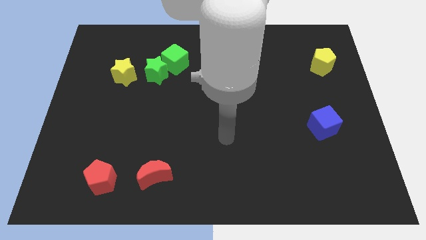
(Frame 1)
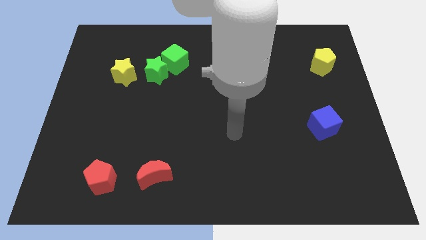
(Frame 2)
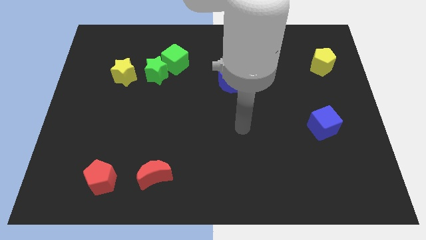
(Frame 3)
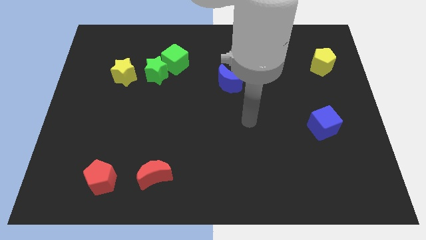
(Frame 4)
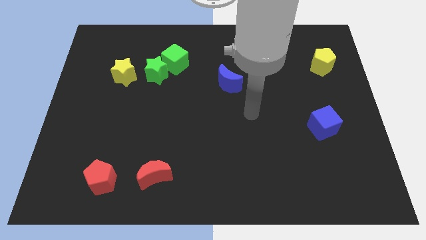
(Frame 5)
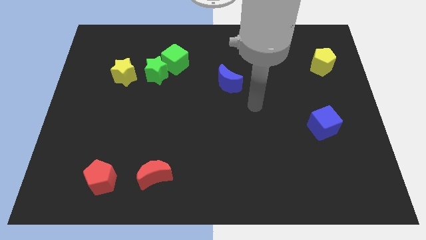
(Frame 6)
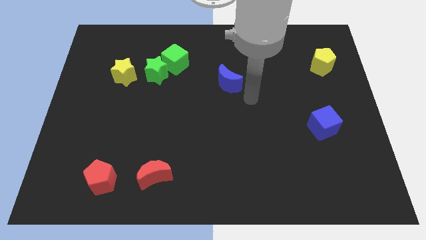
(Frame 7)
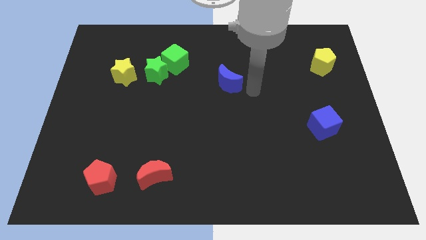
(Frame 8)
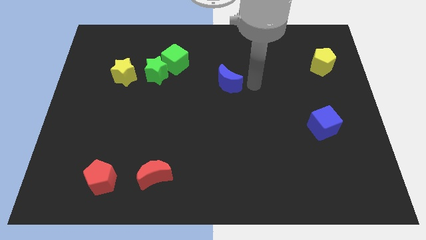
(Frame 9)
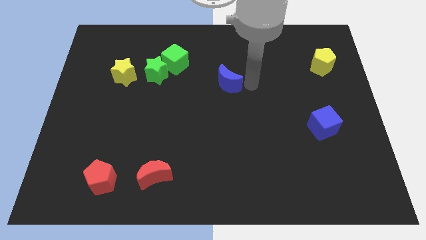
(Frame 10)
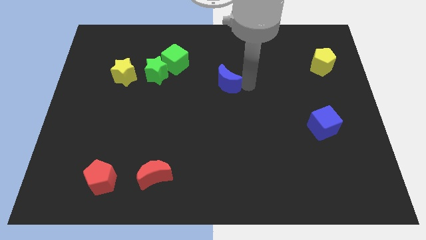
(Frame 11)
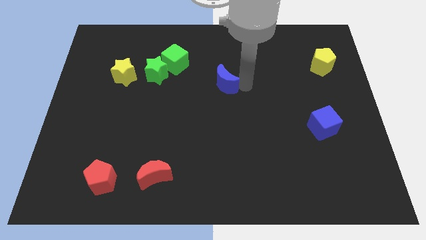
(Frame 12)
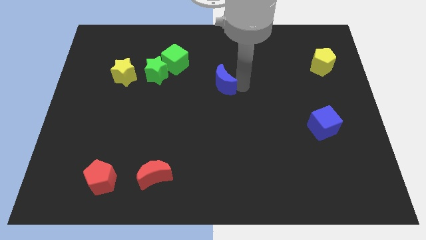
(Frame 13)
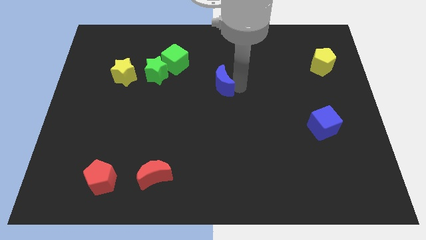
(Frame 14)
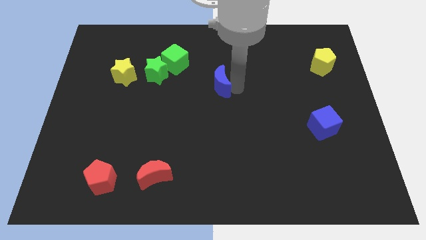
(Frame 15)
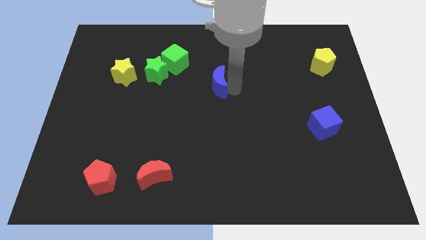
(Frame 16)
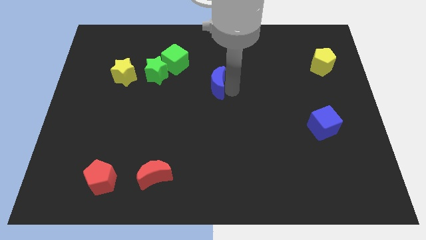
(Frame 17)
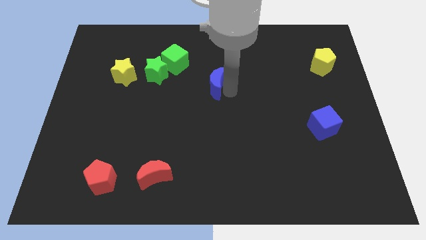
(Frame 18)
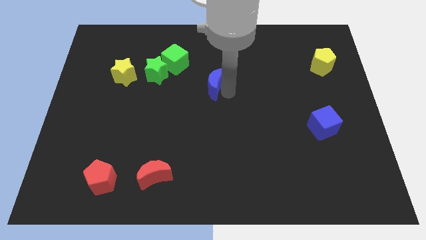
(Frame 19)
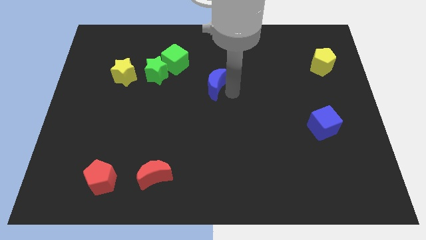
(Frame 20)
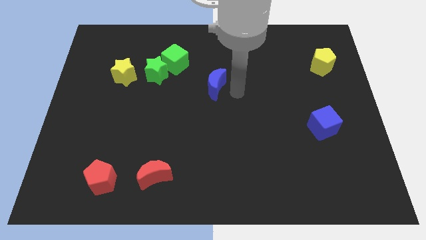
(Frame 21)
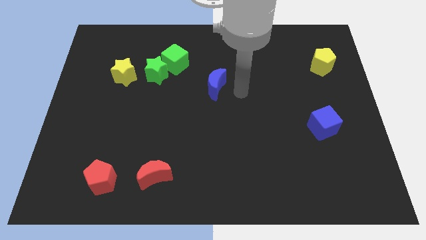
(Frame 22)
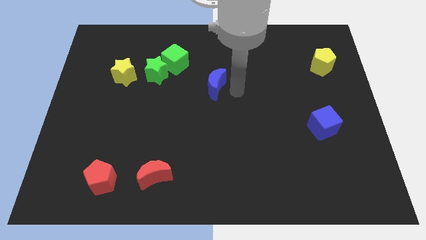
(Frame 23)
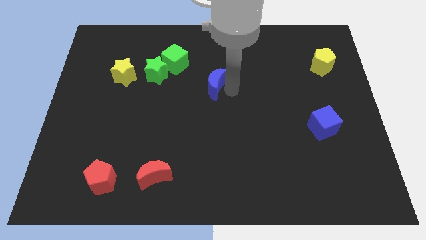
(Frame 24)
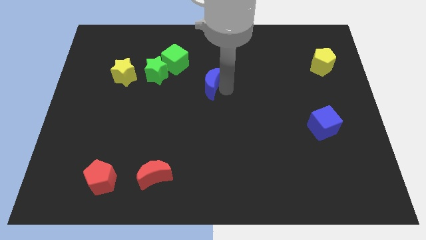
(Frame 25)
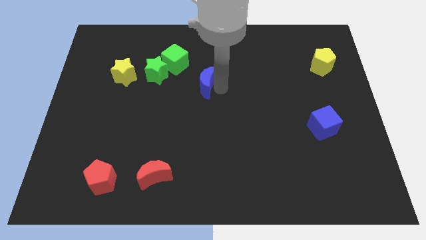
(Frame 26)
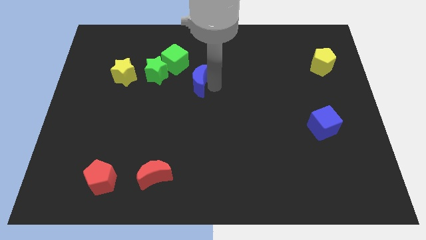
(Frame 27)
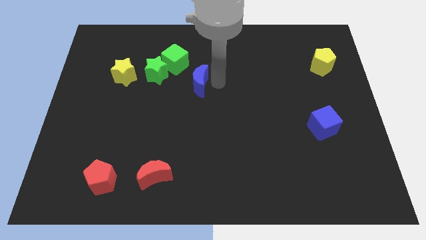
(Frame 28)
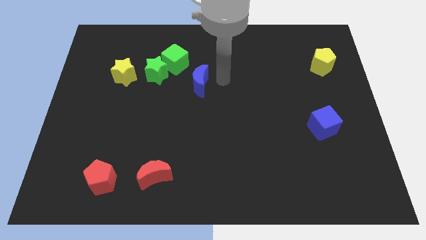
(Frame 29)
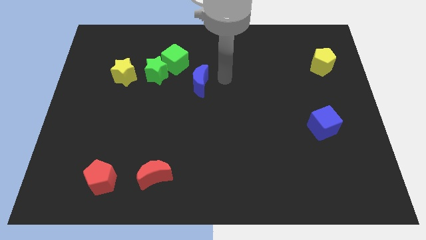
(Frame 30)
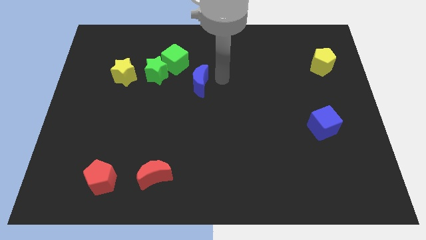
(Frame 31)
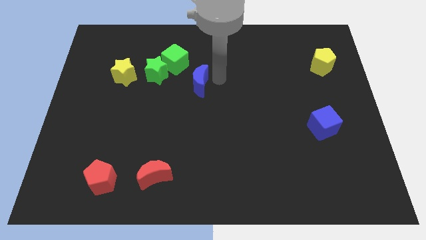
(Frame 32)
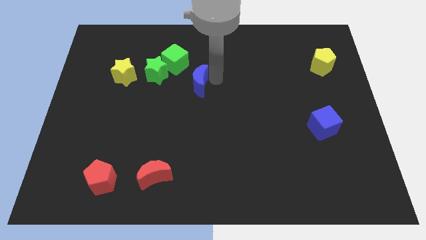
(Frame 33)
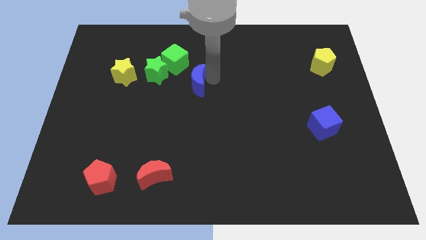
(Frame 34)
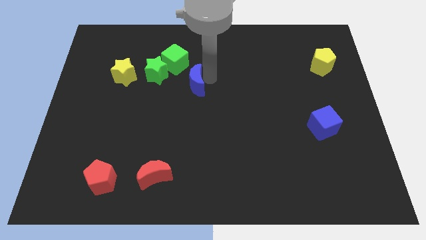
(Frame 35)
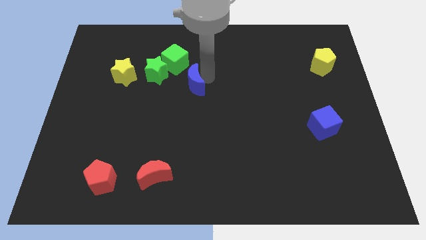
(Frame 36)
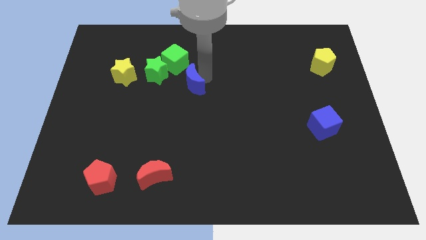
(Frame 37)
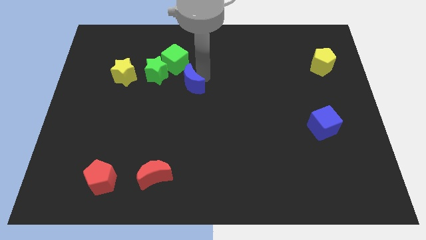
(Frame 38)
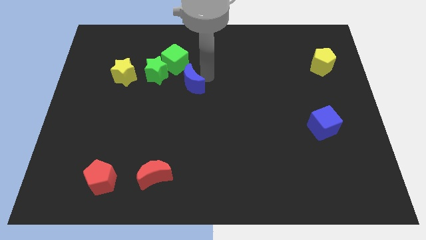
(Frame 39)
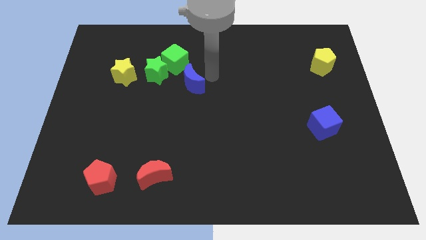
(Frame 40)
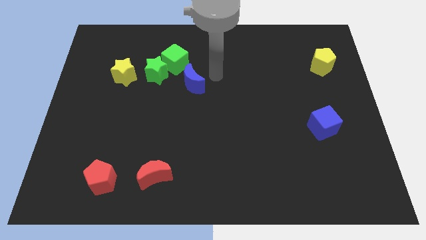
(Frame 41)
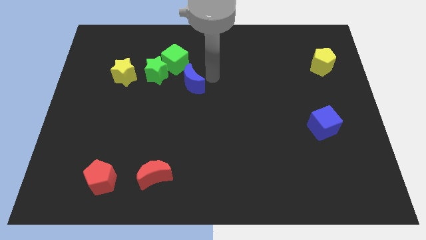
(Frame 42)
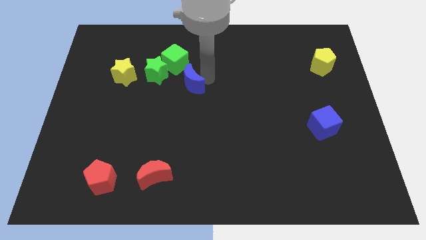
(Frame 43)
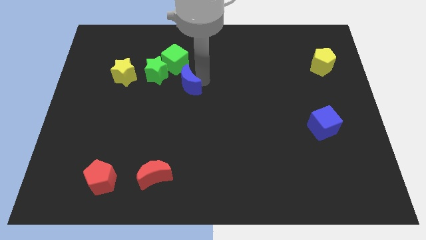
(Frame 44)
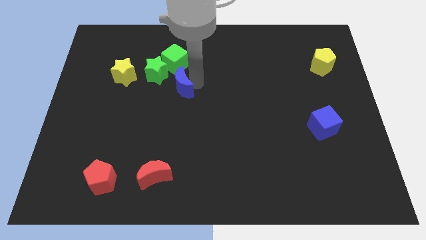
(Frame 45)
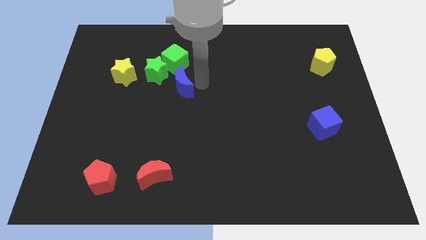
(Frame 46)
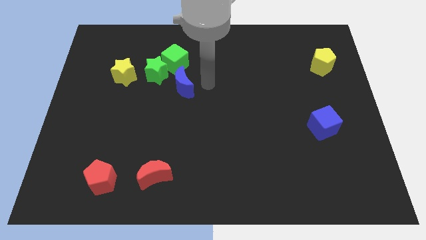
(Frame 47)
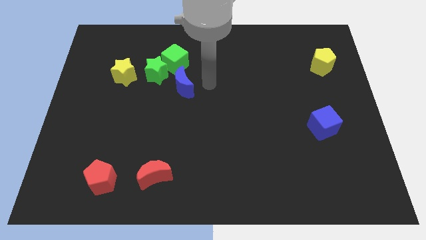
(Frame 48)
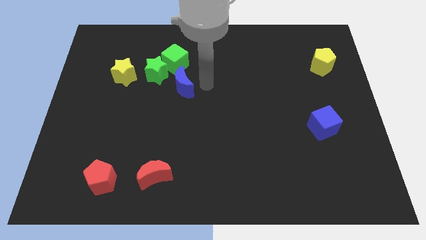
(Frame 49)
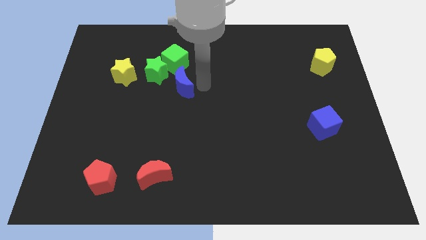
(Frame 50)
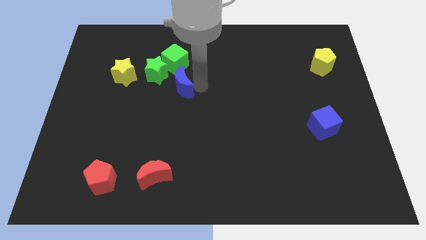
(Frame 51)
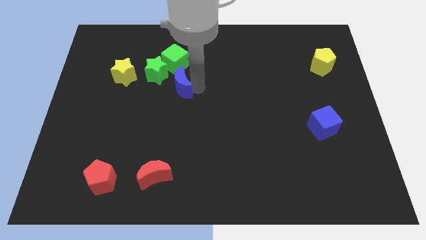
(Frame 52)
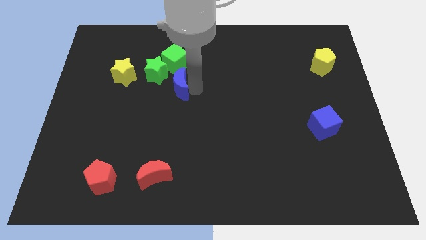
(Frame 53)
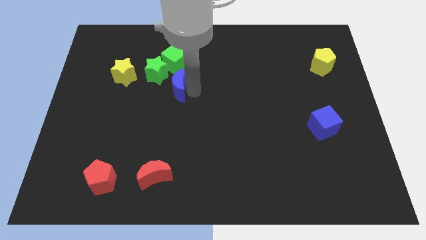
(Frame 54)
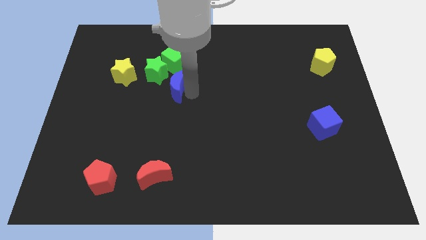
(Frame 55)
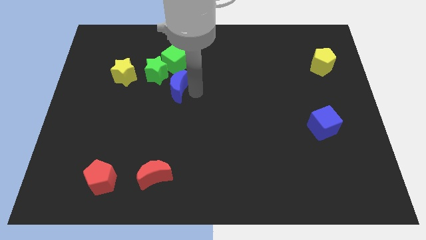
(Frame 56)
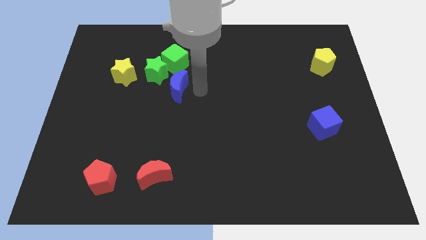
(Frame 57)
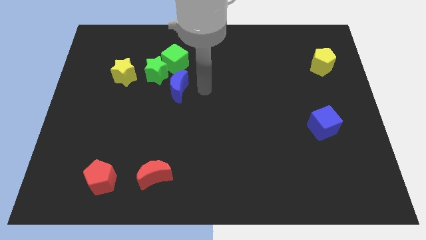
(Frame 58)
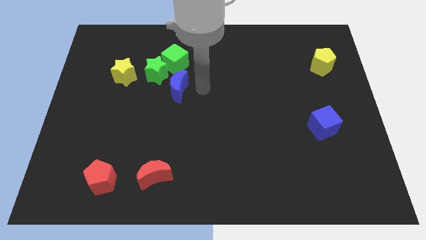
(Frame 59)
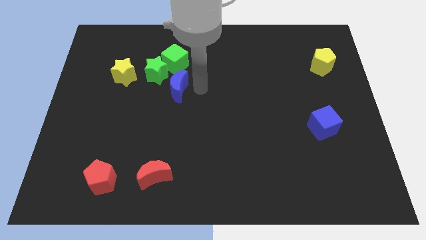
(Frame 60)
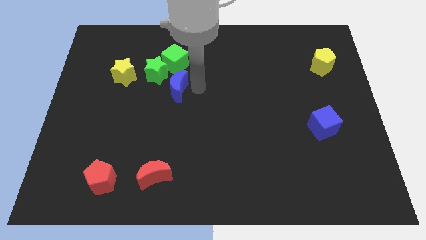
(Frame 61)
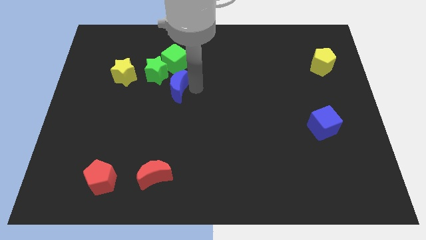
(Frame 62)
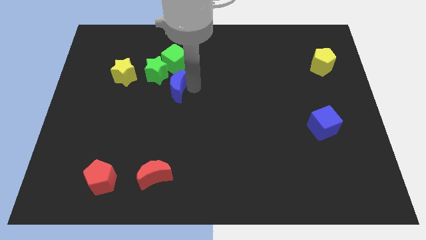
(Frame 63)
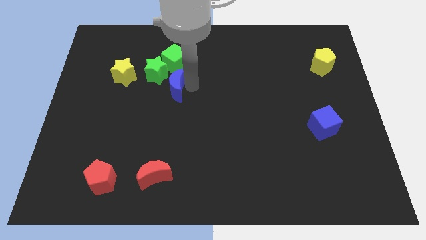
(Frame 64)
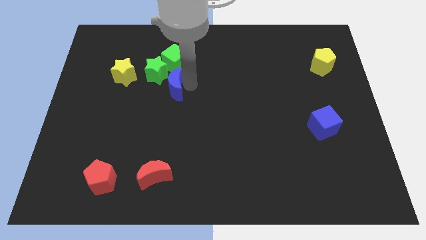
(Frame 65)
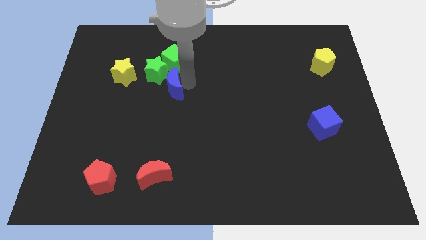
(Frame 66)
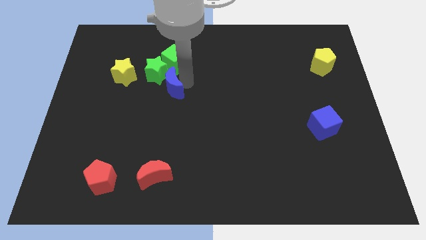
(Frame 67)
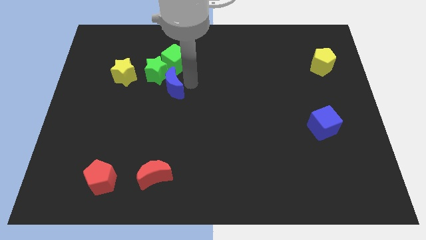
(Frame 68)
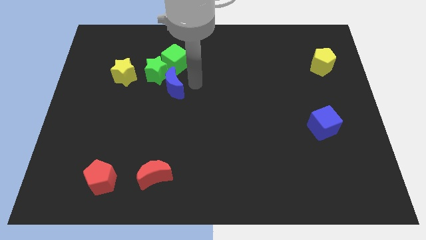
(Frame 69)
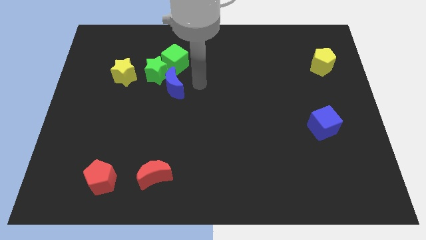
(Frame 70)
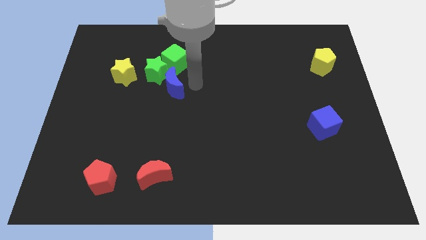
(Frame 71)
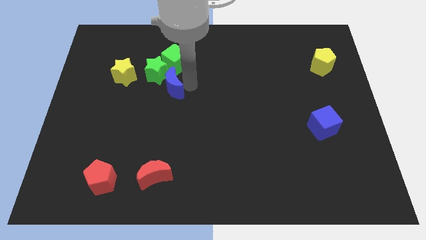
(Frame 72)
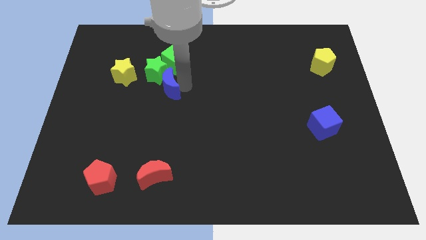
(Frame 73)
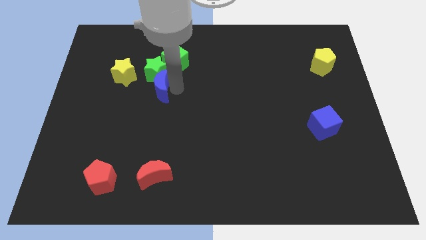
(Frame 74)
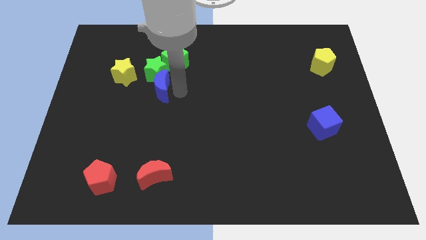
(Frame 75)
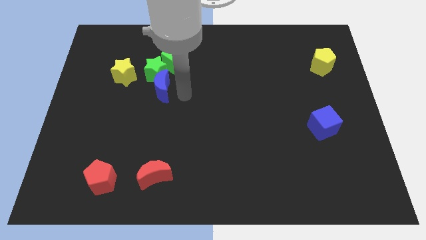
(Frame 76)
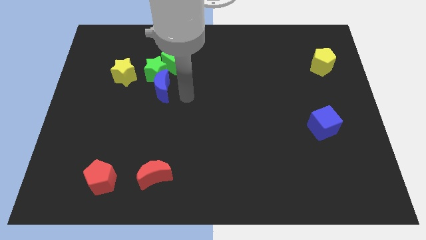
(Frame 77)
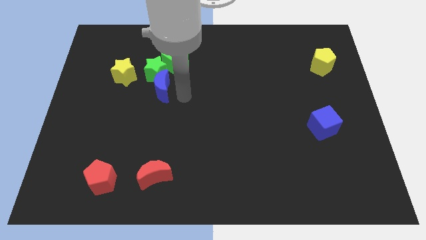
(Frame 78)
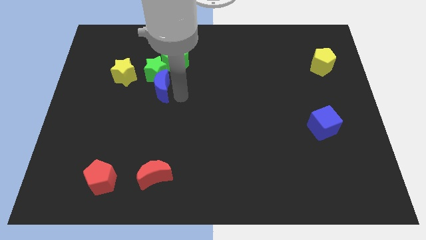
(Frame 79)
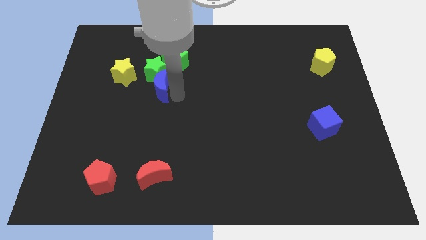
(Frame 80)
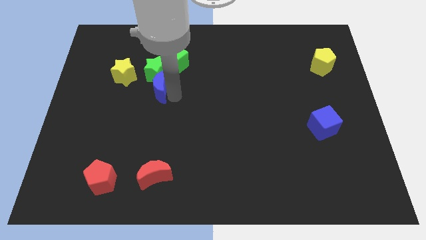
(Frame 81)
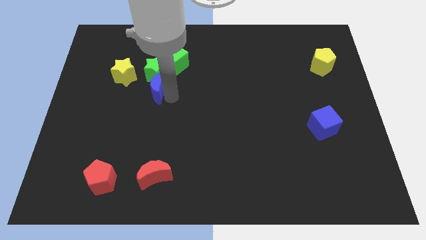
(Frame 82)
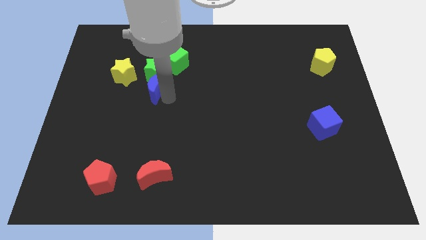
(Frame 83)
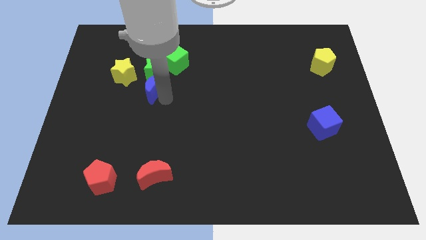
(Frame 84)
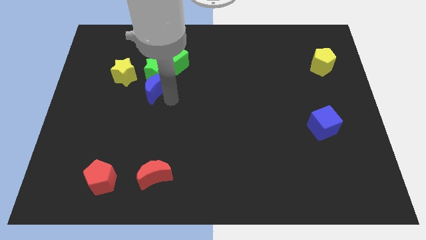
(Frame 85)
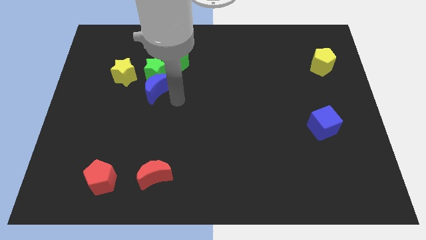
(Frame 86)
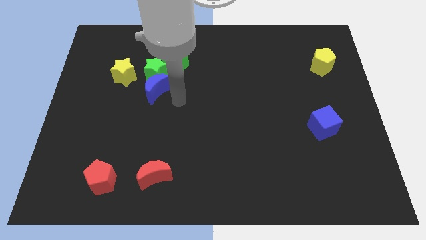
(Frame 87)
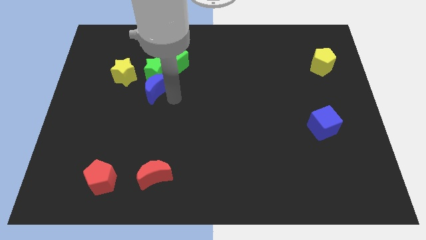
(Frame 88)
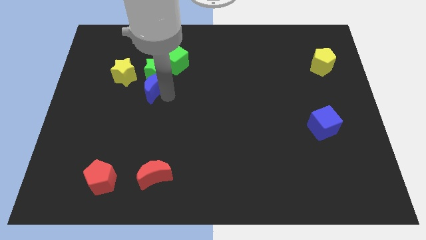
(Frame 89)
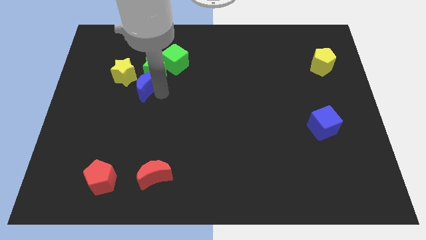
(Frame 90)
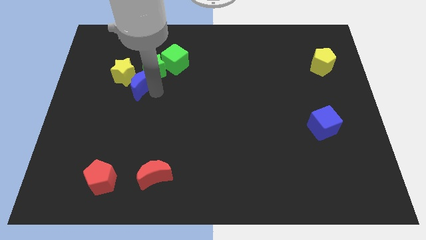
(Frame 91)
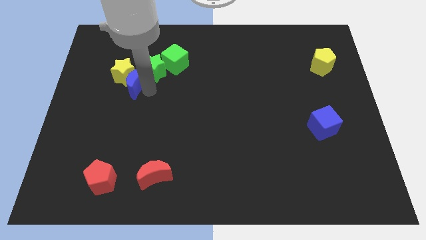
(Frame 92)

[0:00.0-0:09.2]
put the blue moon towards the yellow star
